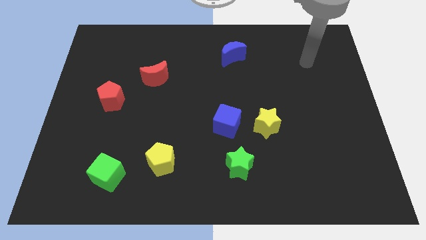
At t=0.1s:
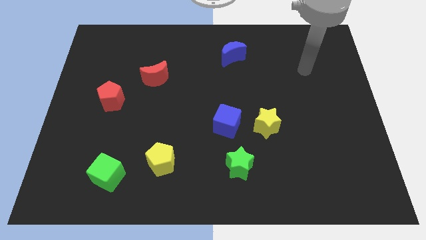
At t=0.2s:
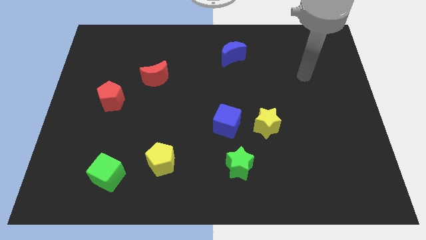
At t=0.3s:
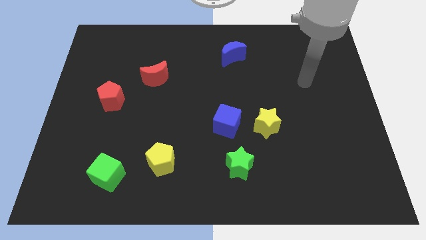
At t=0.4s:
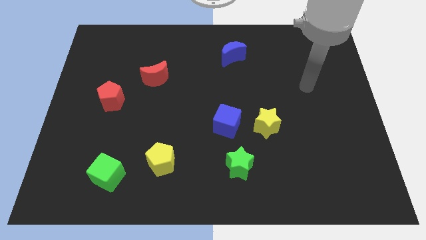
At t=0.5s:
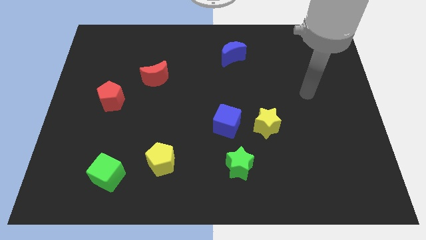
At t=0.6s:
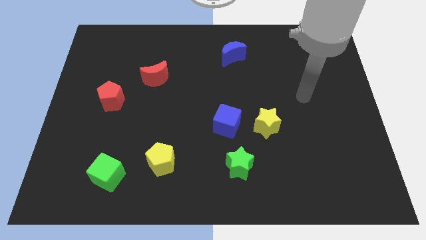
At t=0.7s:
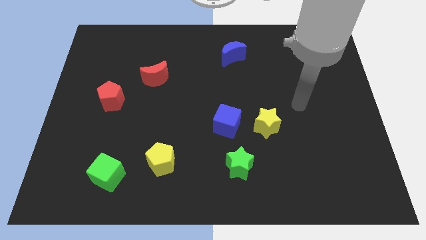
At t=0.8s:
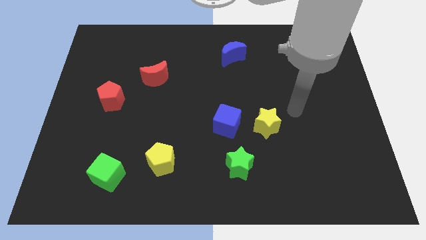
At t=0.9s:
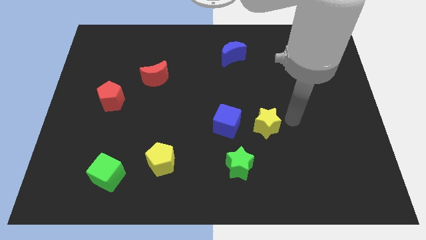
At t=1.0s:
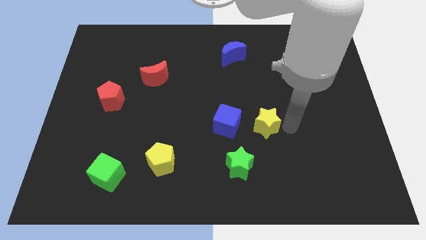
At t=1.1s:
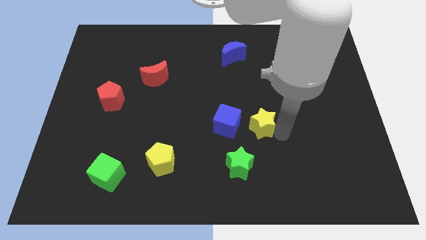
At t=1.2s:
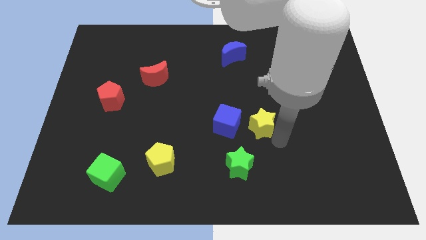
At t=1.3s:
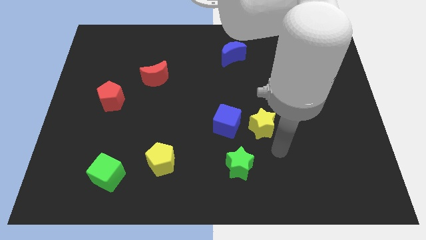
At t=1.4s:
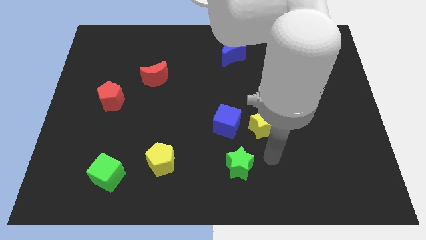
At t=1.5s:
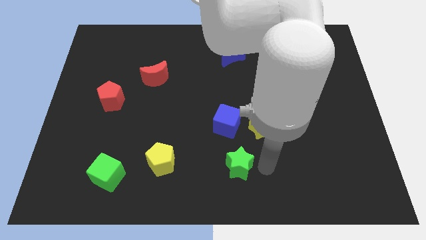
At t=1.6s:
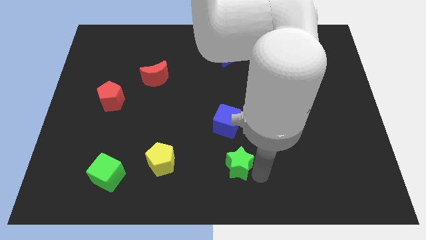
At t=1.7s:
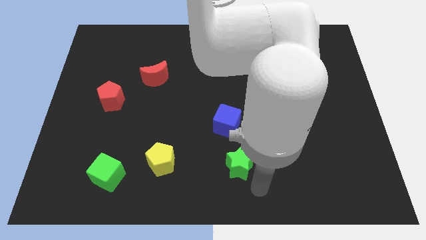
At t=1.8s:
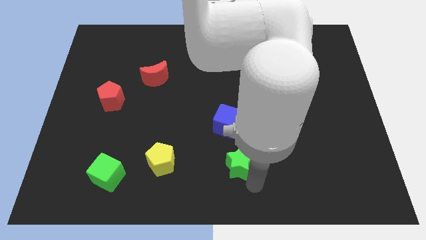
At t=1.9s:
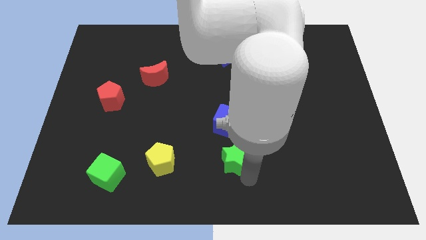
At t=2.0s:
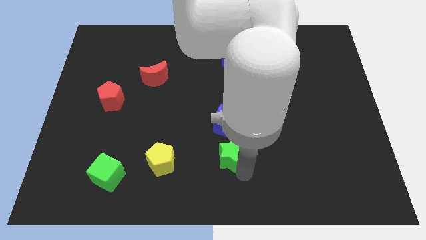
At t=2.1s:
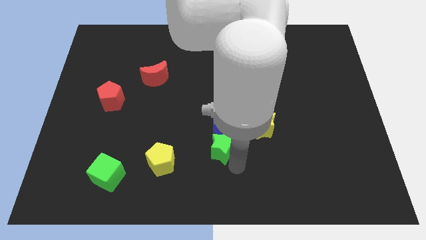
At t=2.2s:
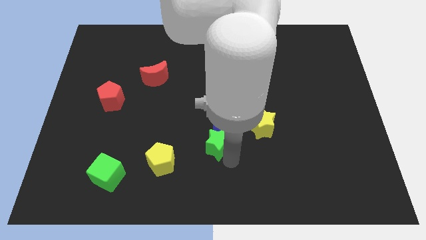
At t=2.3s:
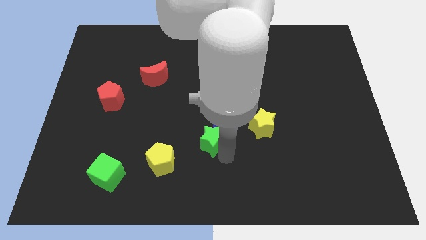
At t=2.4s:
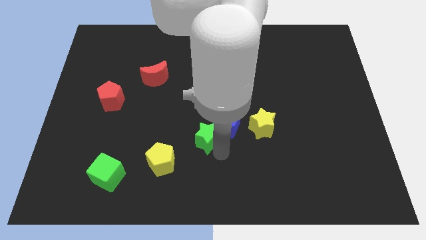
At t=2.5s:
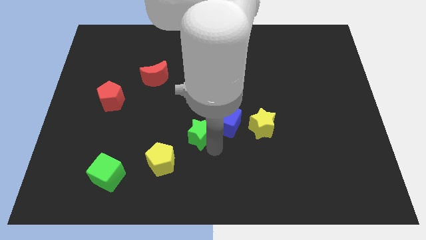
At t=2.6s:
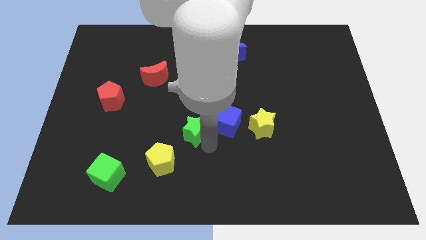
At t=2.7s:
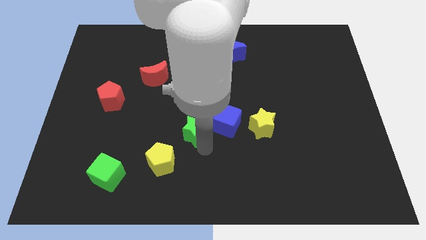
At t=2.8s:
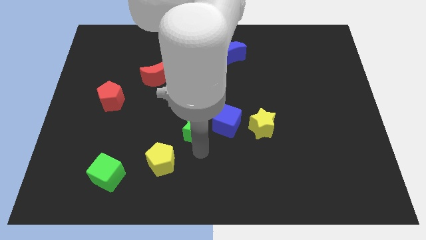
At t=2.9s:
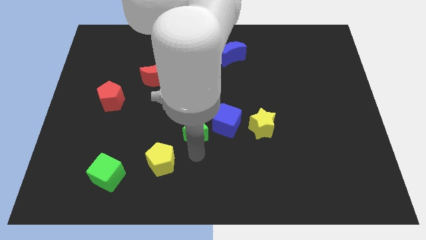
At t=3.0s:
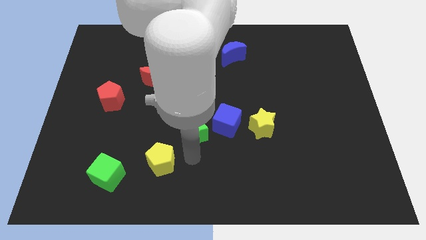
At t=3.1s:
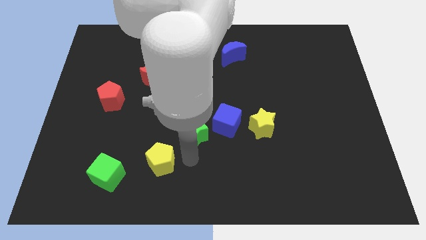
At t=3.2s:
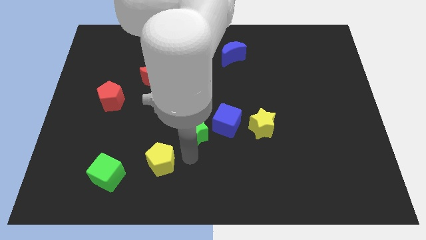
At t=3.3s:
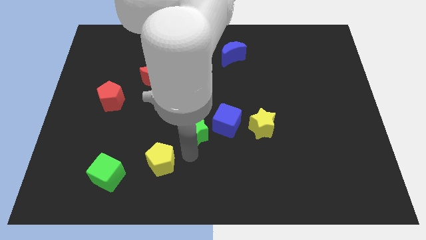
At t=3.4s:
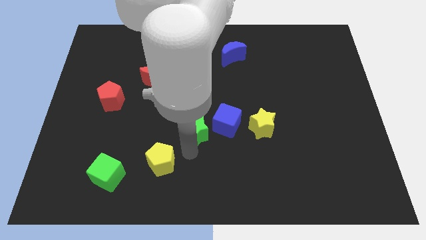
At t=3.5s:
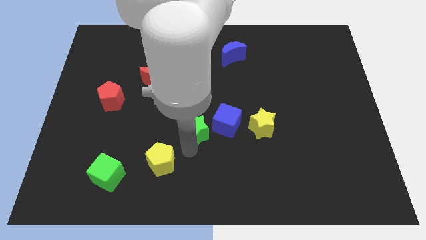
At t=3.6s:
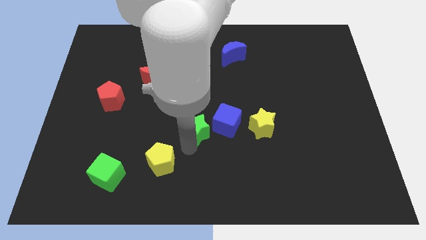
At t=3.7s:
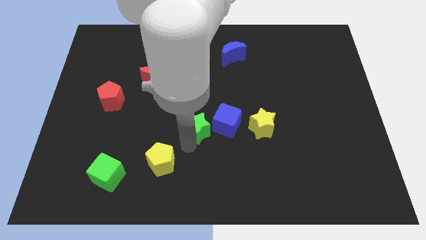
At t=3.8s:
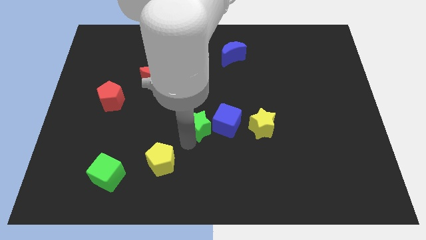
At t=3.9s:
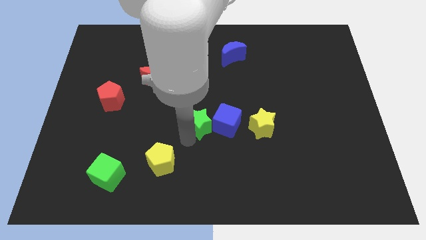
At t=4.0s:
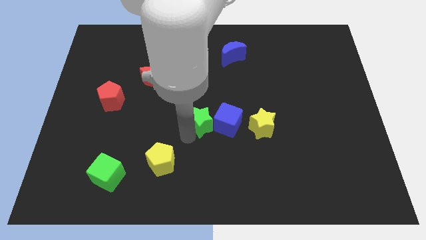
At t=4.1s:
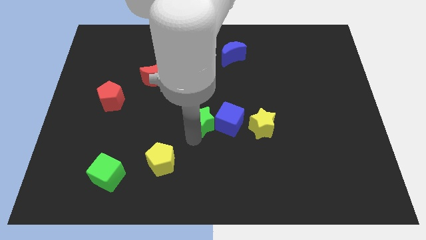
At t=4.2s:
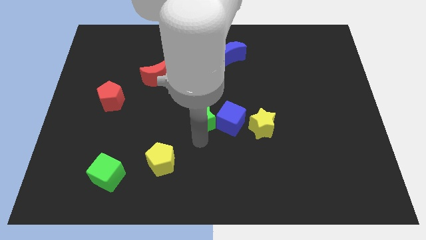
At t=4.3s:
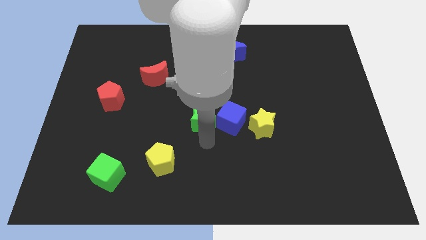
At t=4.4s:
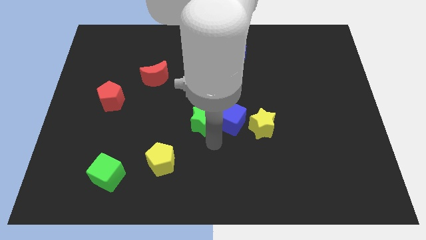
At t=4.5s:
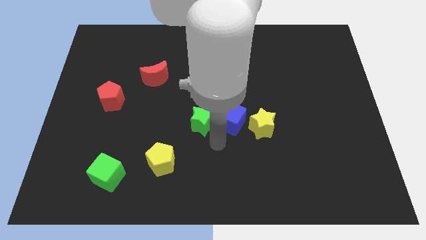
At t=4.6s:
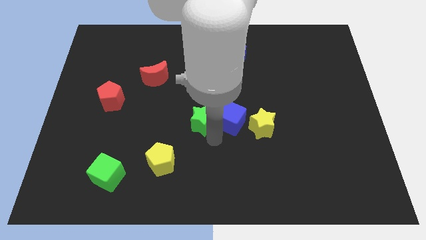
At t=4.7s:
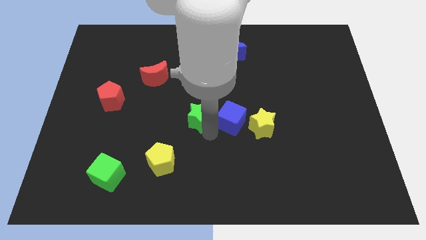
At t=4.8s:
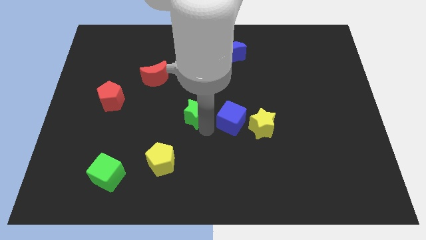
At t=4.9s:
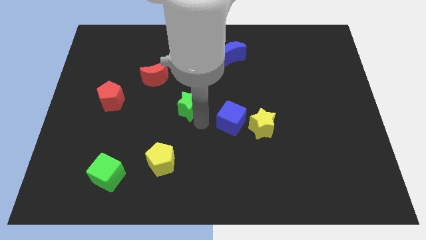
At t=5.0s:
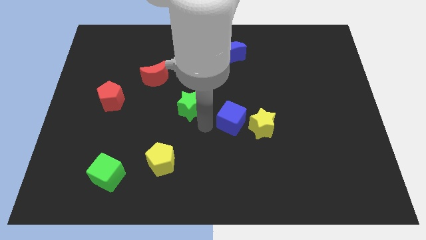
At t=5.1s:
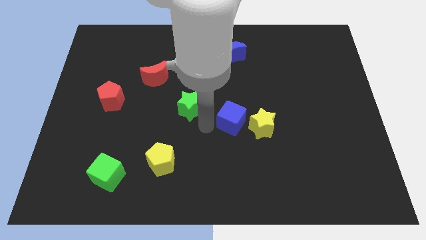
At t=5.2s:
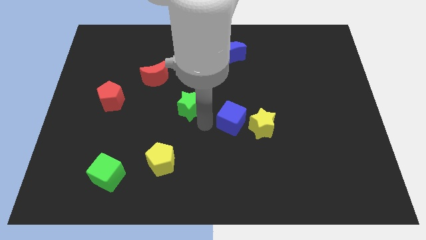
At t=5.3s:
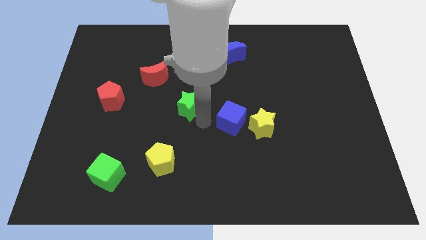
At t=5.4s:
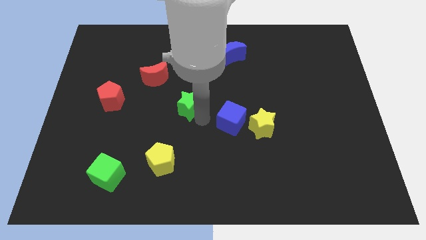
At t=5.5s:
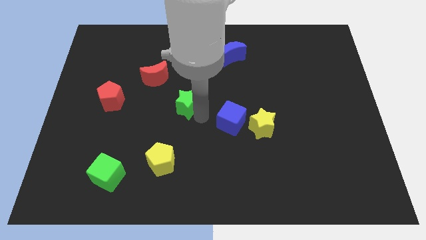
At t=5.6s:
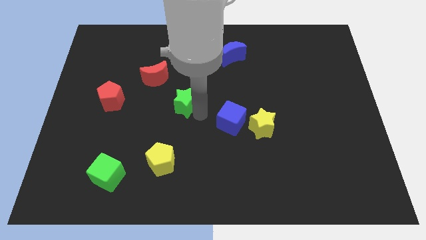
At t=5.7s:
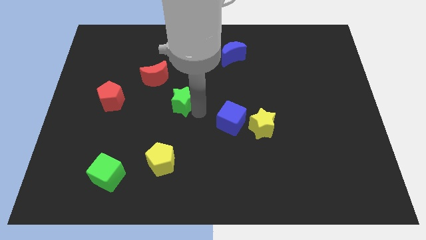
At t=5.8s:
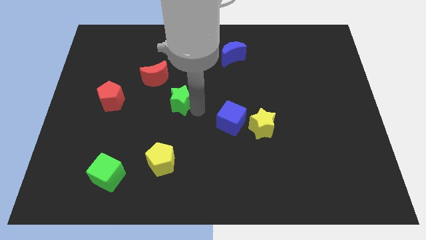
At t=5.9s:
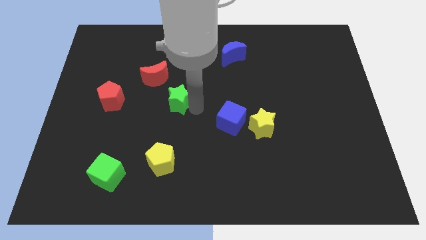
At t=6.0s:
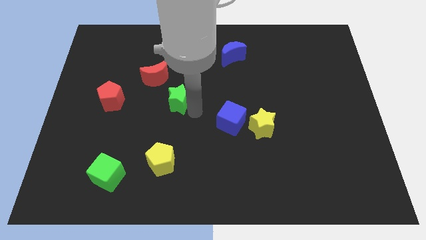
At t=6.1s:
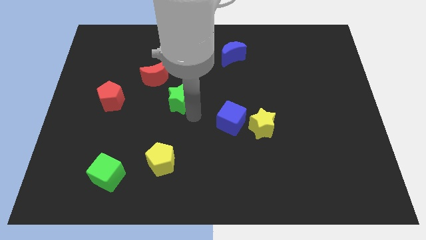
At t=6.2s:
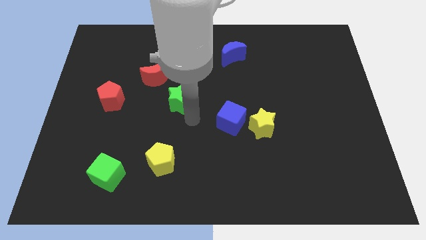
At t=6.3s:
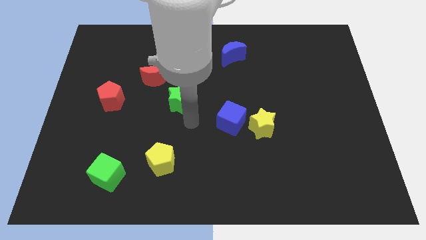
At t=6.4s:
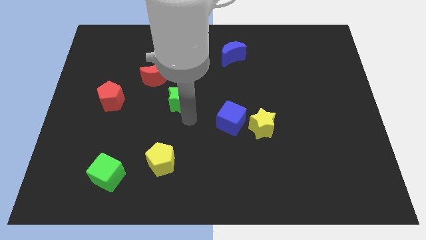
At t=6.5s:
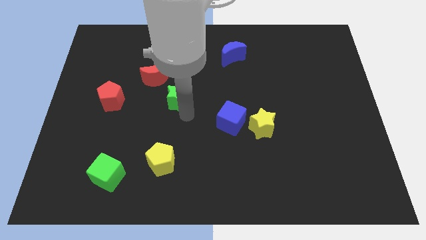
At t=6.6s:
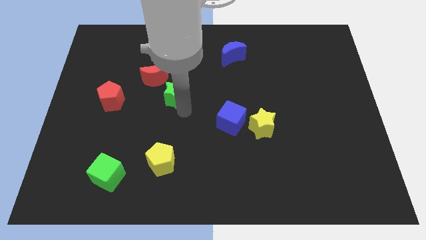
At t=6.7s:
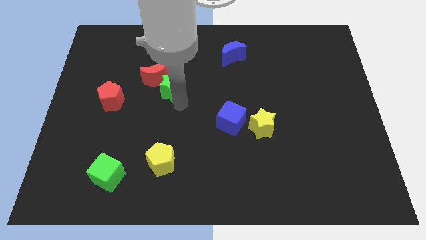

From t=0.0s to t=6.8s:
put the green star to the red moon
